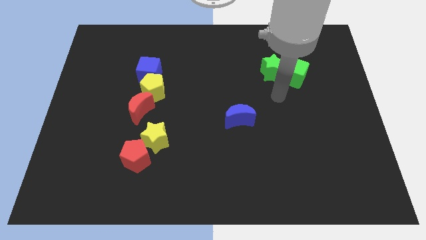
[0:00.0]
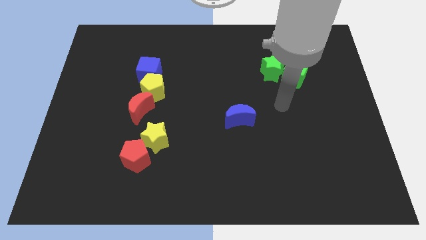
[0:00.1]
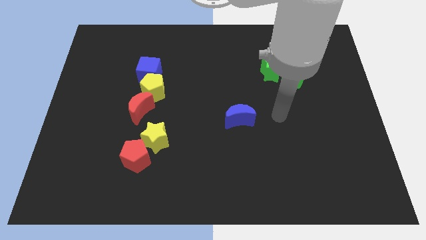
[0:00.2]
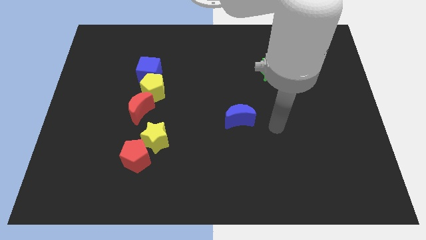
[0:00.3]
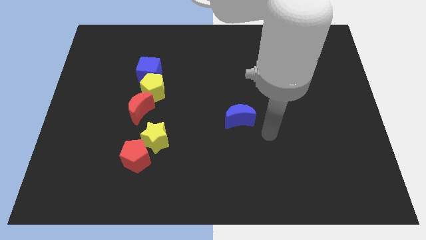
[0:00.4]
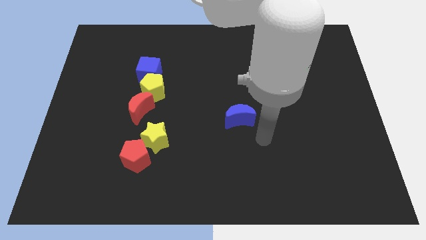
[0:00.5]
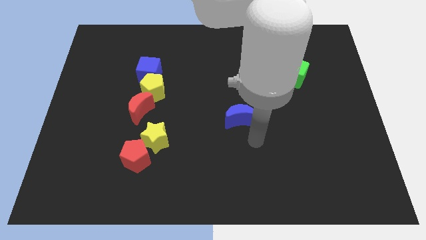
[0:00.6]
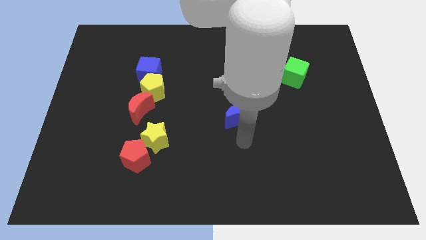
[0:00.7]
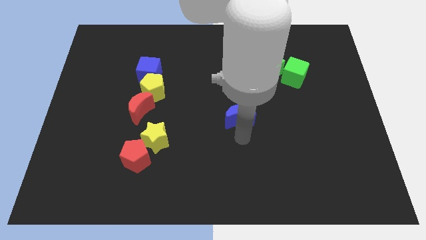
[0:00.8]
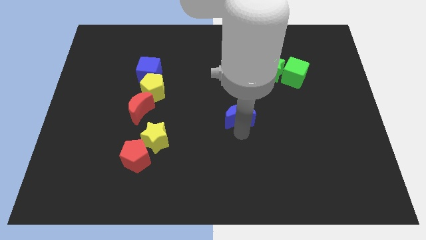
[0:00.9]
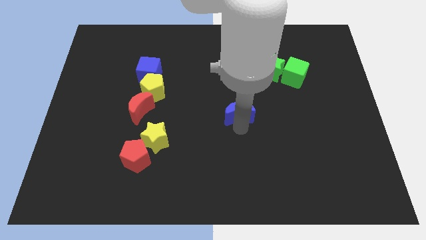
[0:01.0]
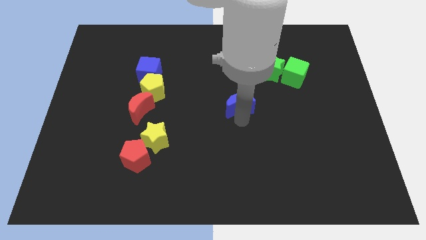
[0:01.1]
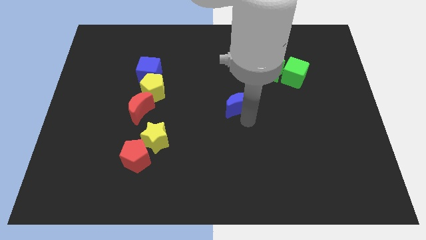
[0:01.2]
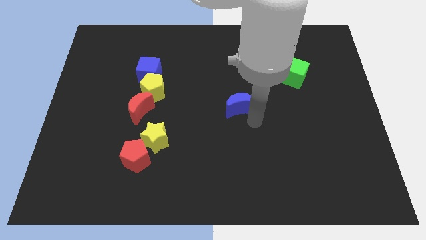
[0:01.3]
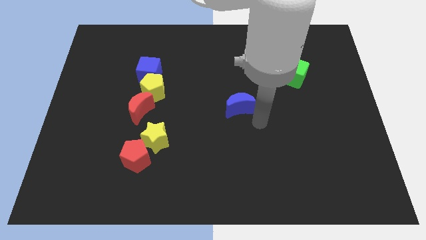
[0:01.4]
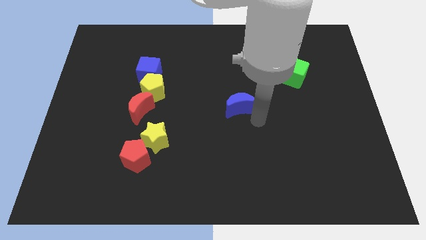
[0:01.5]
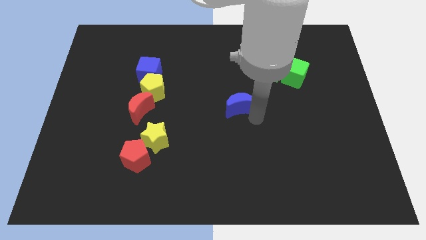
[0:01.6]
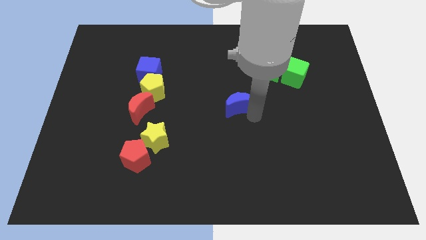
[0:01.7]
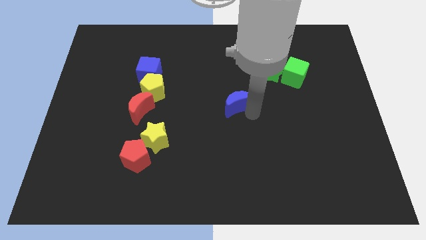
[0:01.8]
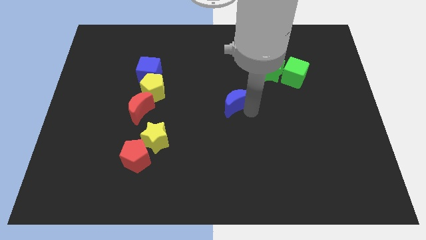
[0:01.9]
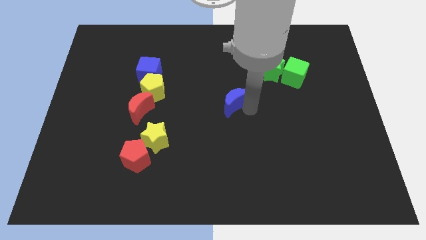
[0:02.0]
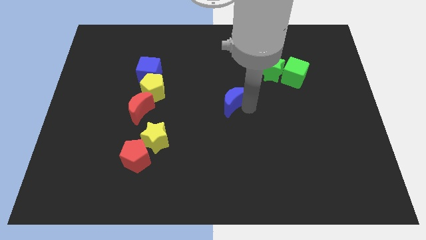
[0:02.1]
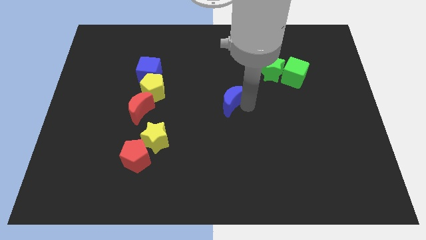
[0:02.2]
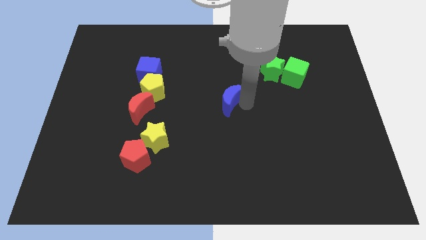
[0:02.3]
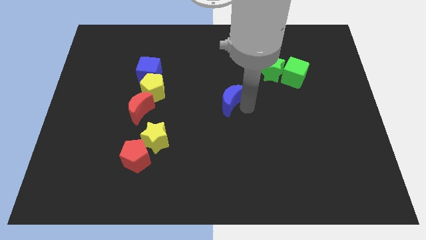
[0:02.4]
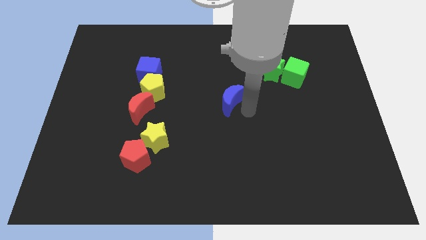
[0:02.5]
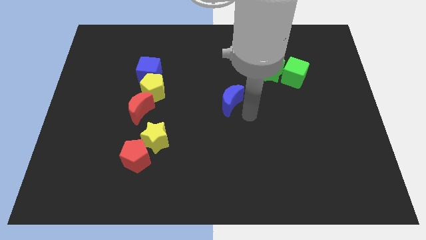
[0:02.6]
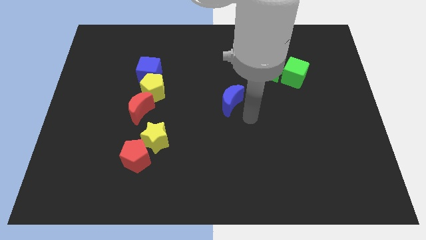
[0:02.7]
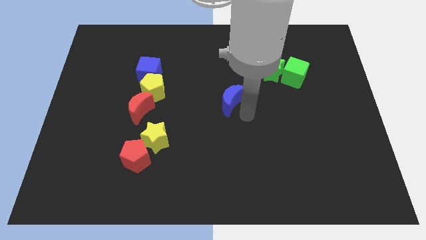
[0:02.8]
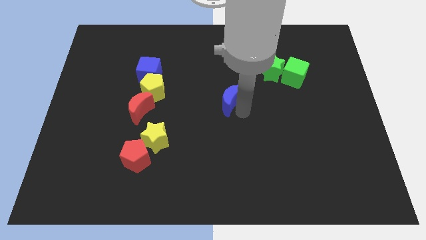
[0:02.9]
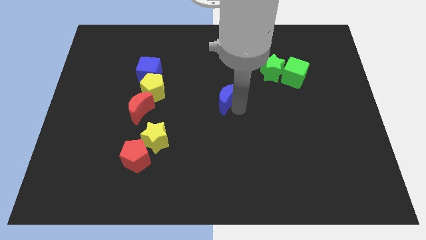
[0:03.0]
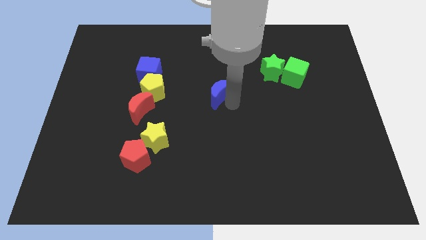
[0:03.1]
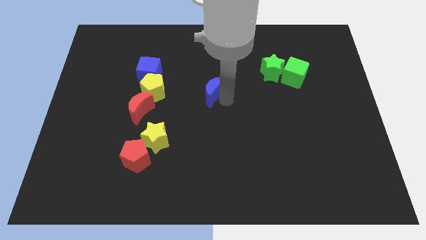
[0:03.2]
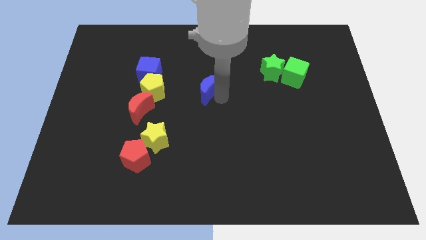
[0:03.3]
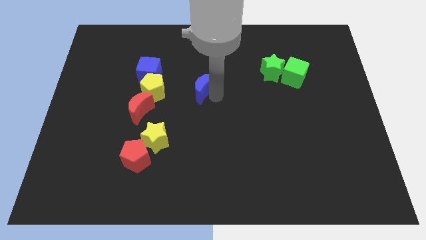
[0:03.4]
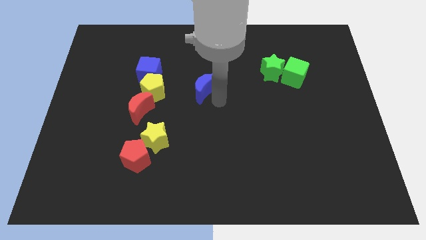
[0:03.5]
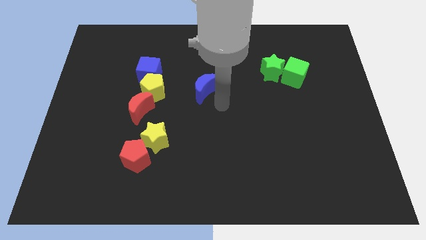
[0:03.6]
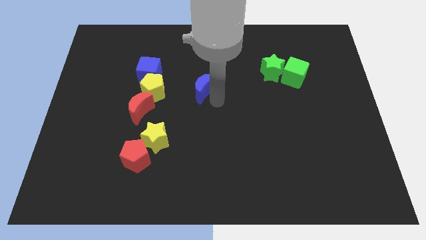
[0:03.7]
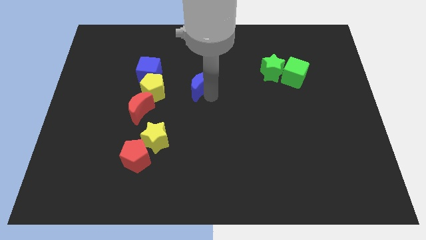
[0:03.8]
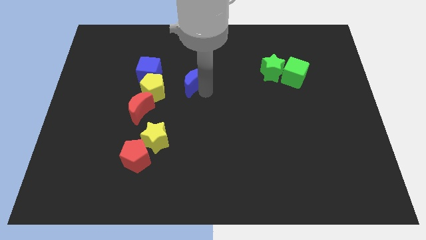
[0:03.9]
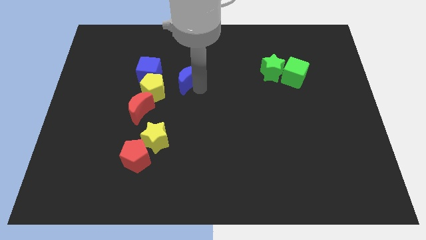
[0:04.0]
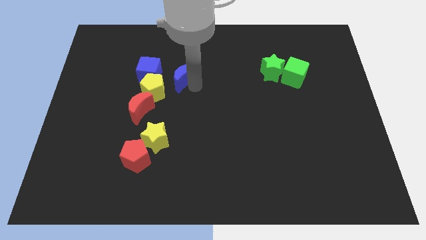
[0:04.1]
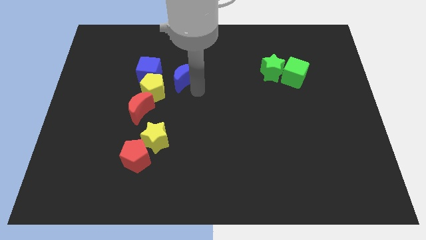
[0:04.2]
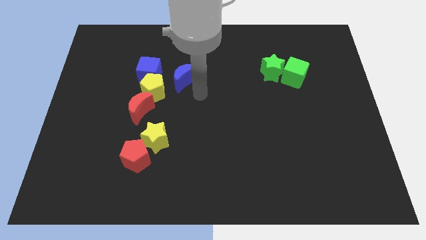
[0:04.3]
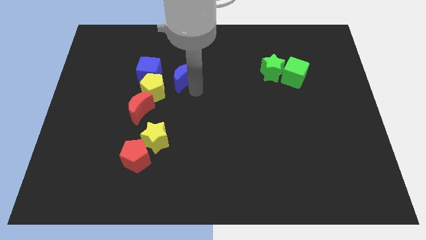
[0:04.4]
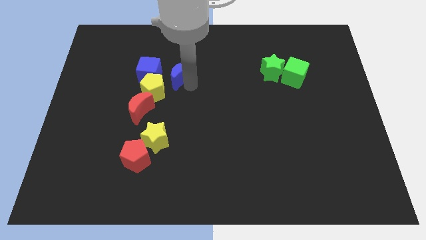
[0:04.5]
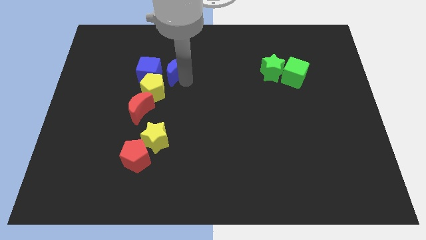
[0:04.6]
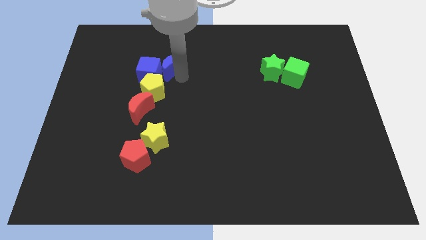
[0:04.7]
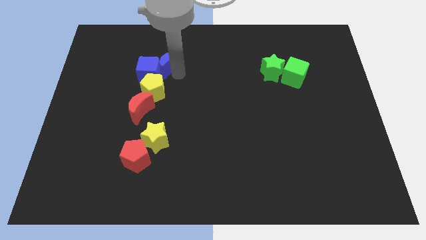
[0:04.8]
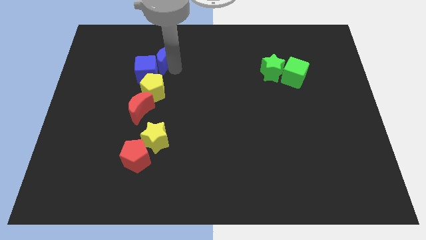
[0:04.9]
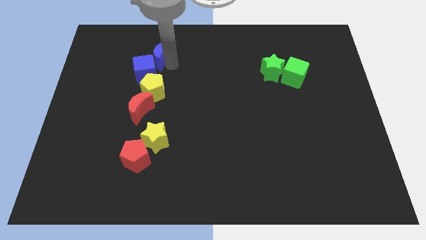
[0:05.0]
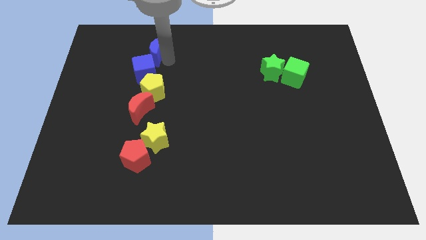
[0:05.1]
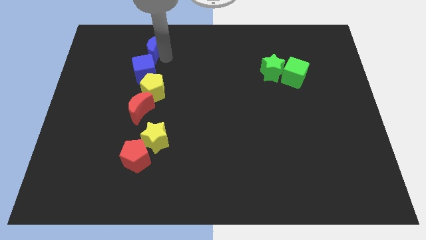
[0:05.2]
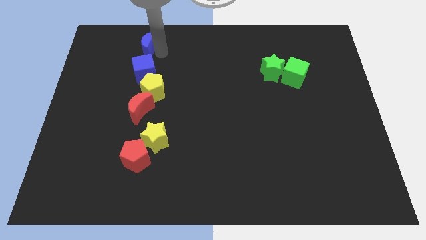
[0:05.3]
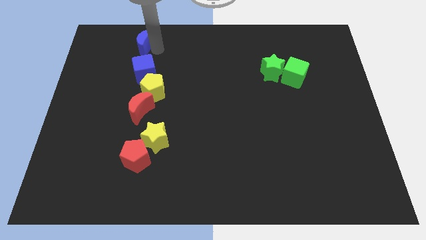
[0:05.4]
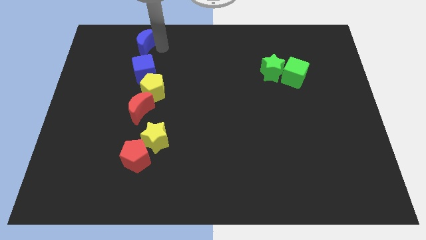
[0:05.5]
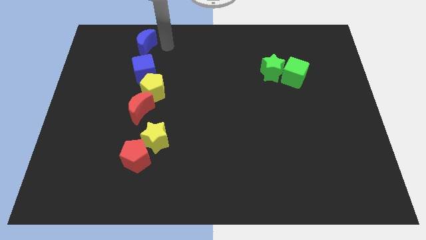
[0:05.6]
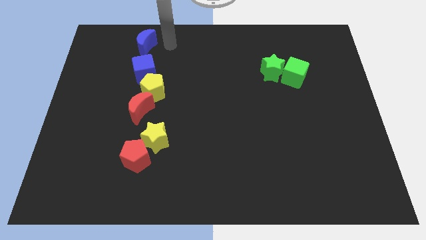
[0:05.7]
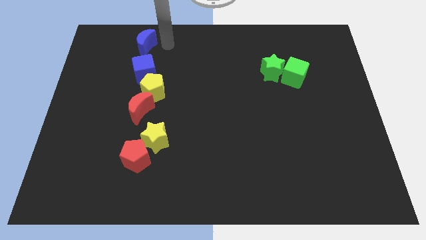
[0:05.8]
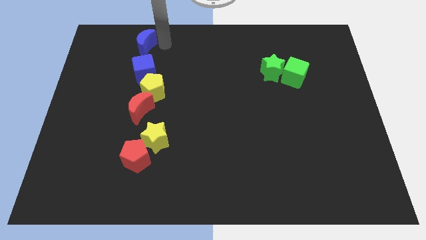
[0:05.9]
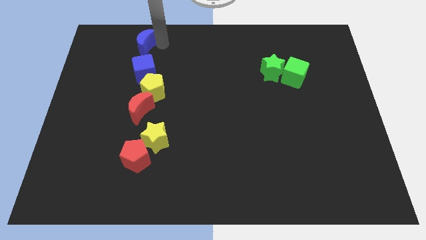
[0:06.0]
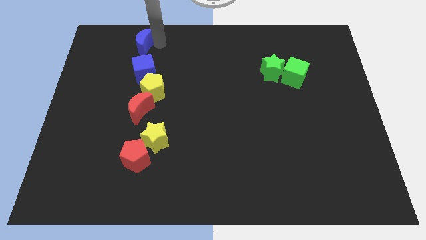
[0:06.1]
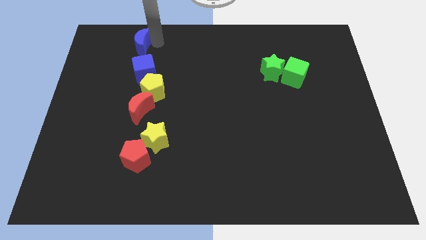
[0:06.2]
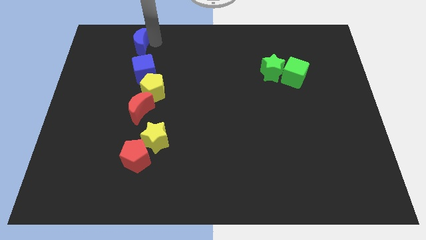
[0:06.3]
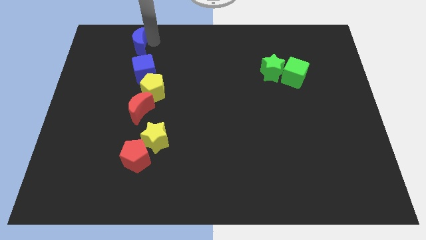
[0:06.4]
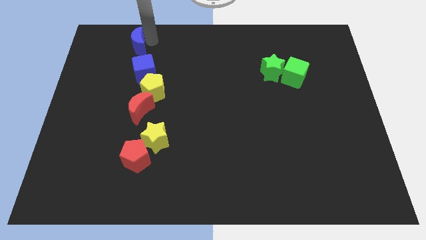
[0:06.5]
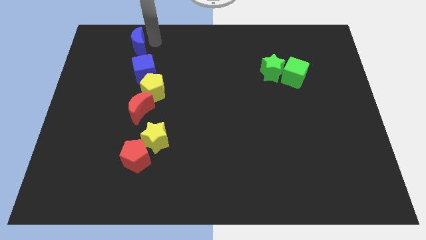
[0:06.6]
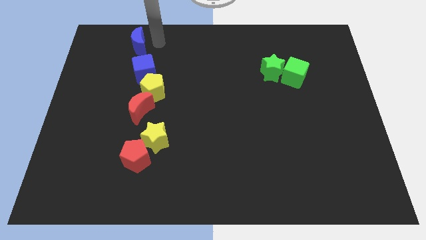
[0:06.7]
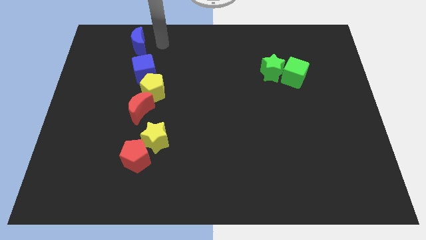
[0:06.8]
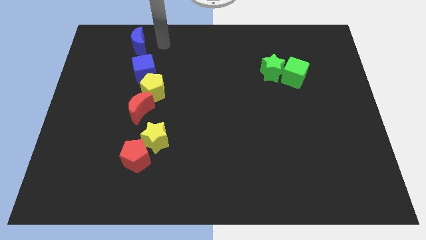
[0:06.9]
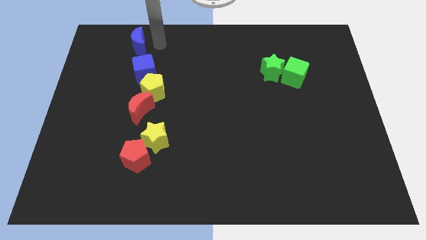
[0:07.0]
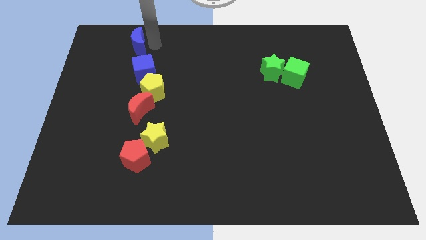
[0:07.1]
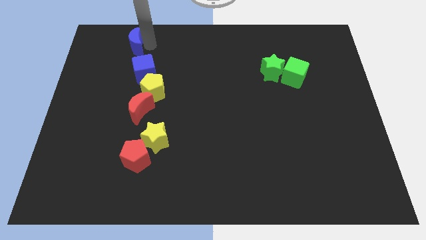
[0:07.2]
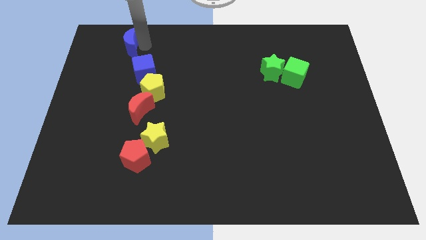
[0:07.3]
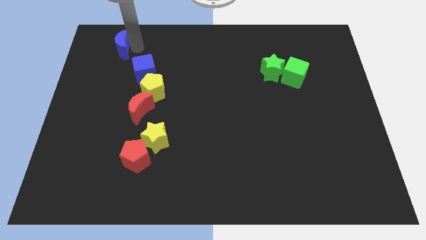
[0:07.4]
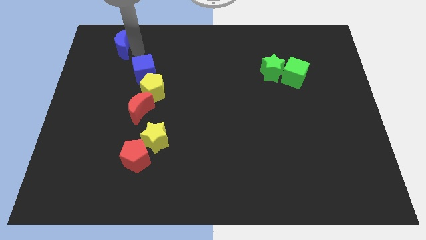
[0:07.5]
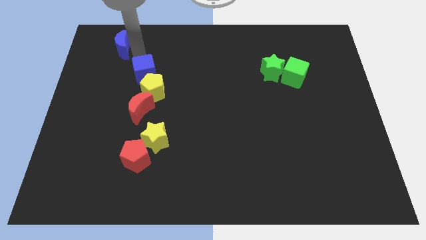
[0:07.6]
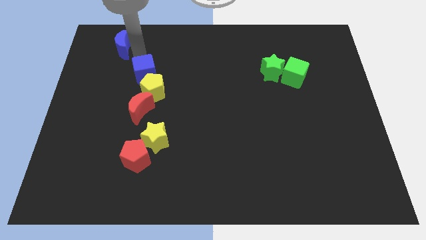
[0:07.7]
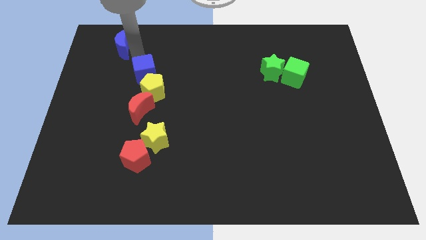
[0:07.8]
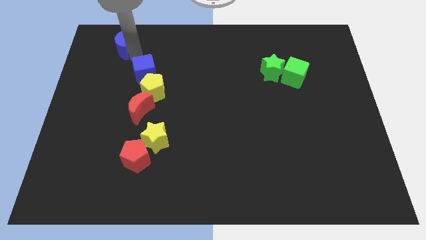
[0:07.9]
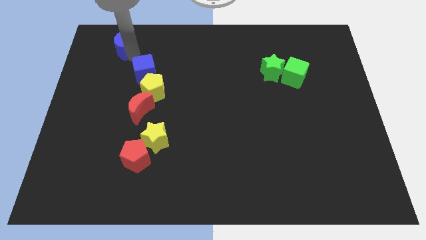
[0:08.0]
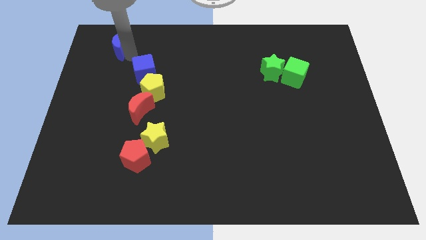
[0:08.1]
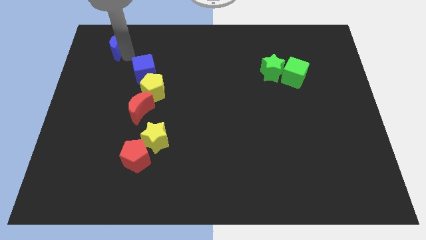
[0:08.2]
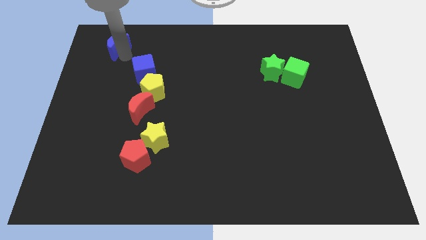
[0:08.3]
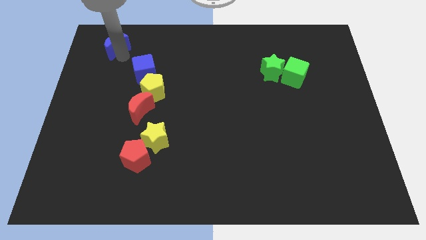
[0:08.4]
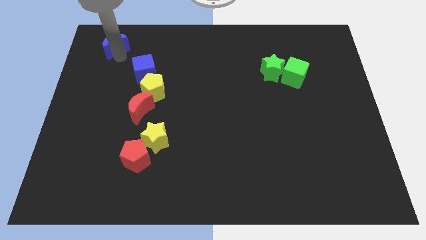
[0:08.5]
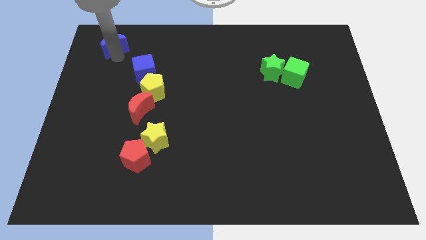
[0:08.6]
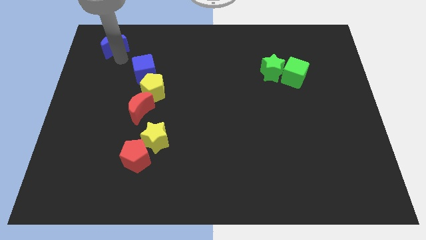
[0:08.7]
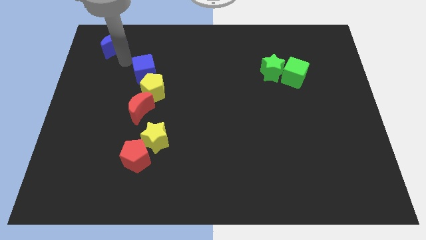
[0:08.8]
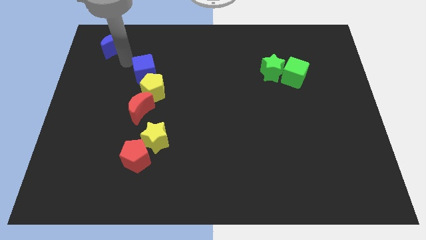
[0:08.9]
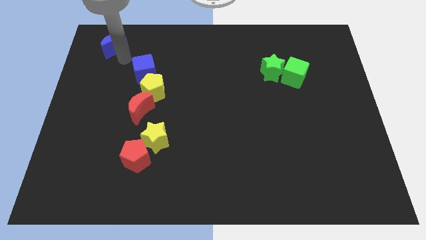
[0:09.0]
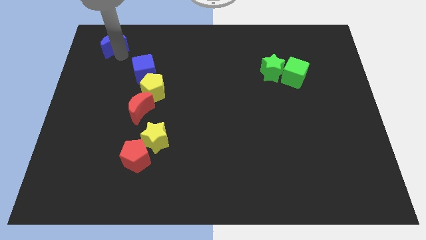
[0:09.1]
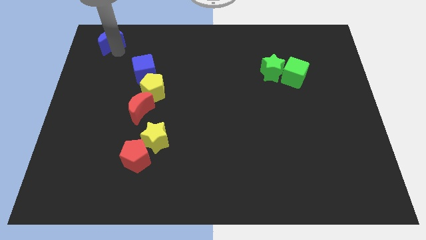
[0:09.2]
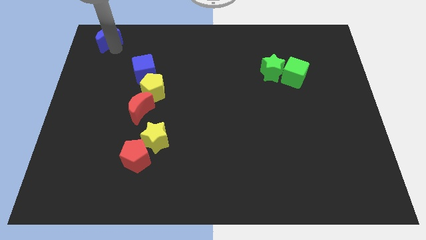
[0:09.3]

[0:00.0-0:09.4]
slide the blue moon to the top left of the board
